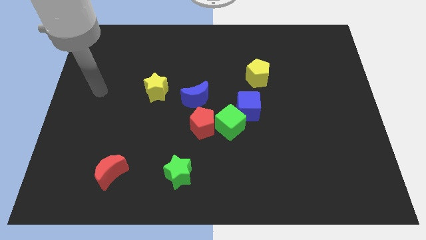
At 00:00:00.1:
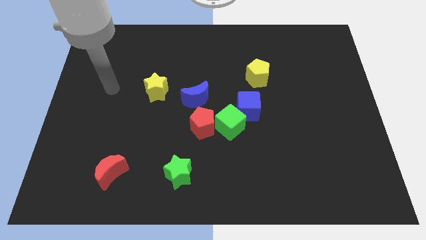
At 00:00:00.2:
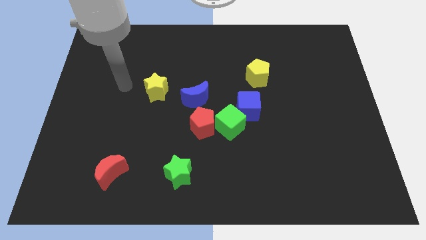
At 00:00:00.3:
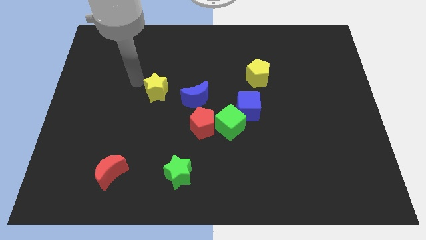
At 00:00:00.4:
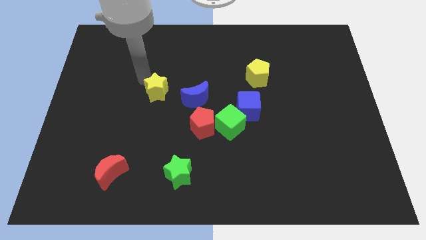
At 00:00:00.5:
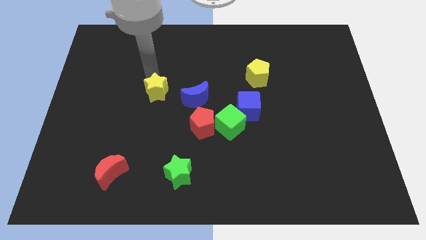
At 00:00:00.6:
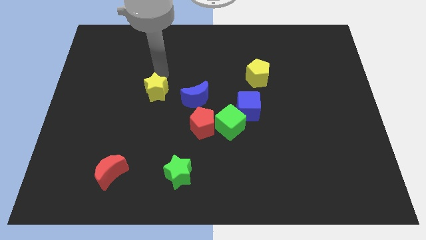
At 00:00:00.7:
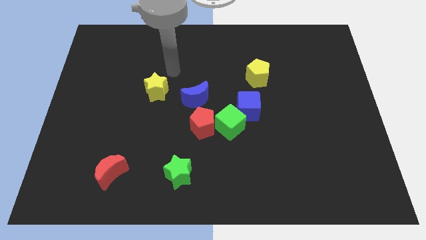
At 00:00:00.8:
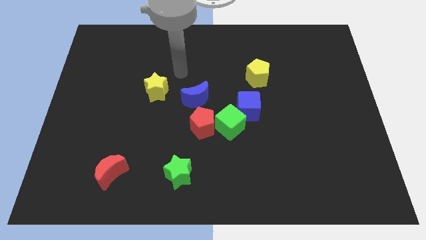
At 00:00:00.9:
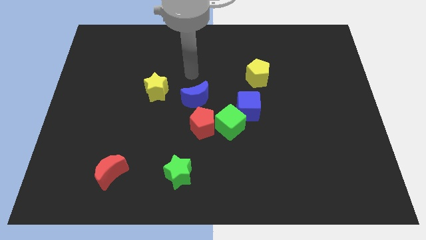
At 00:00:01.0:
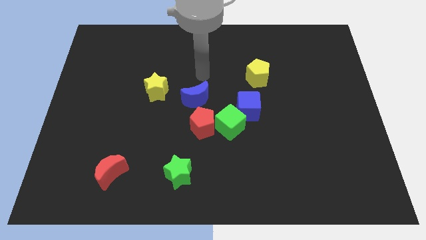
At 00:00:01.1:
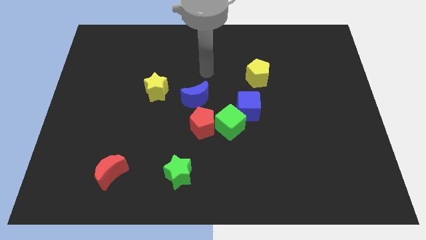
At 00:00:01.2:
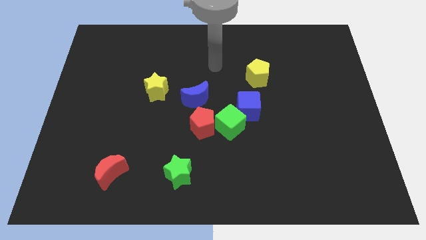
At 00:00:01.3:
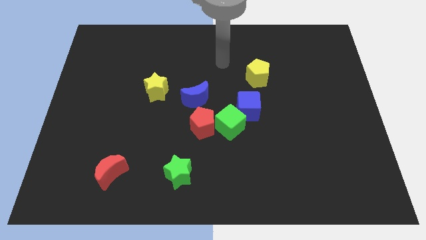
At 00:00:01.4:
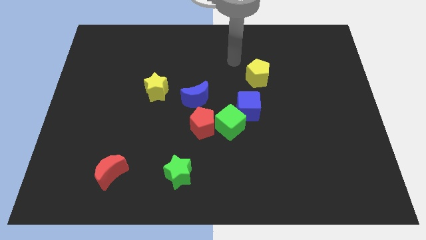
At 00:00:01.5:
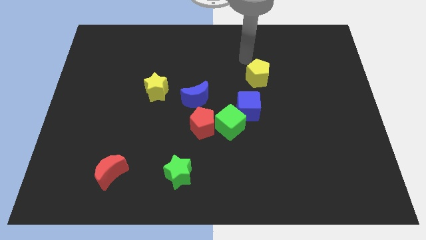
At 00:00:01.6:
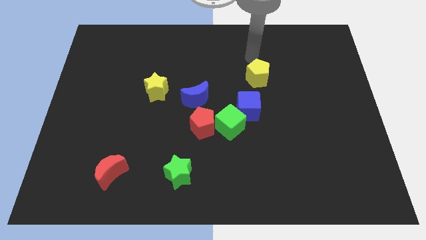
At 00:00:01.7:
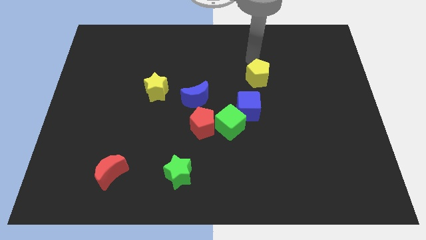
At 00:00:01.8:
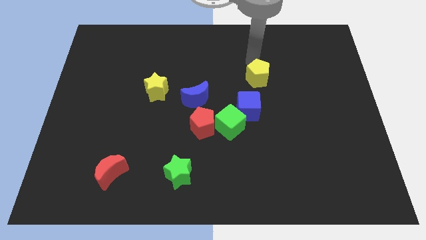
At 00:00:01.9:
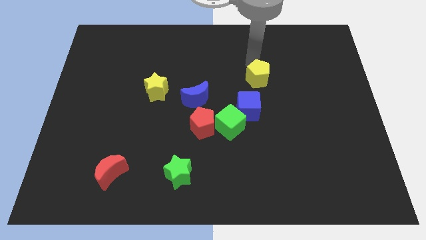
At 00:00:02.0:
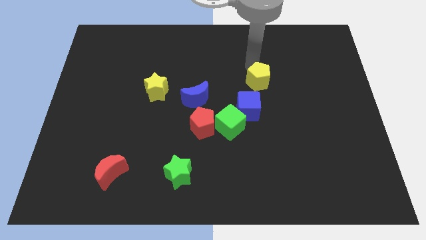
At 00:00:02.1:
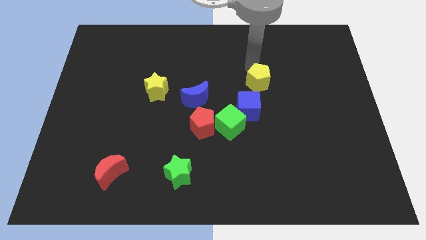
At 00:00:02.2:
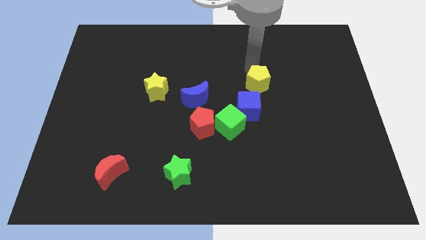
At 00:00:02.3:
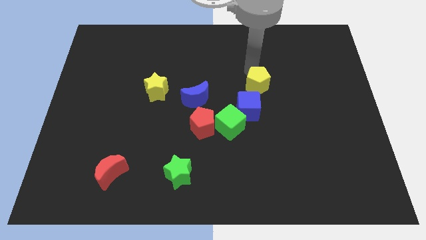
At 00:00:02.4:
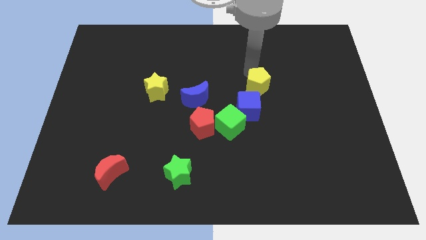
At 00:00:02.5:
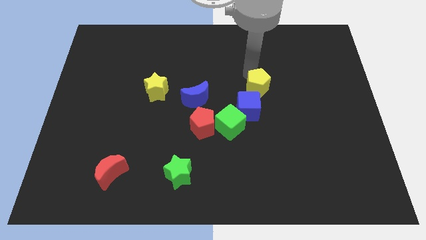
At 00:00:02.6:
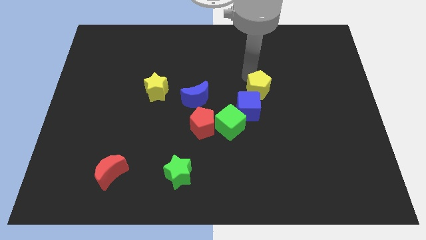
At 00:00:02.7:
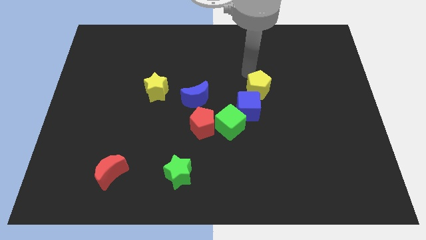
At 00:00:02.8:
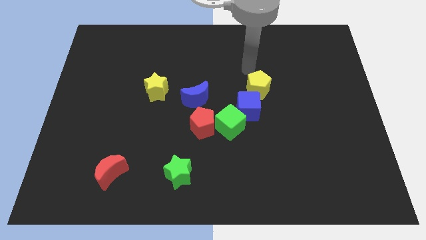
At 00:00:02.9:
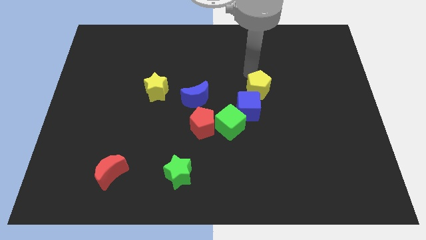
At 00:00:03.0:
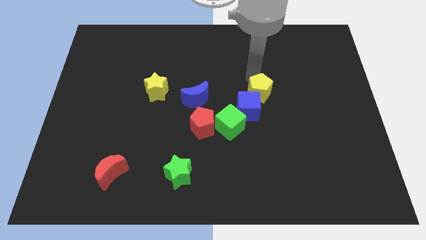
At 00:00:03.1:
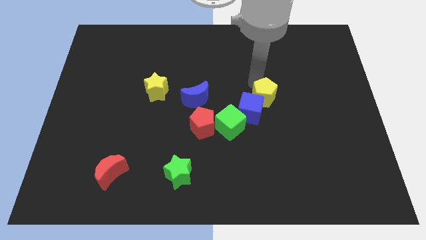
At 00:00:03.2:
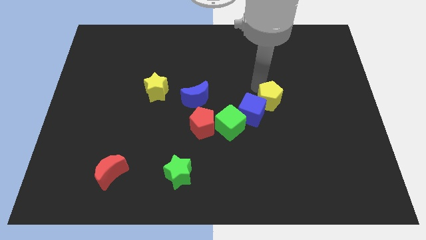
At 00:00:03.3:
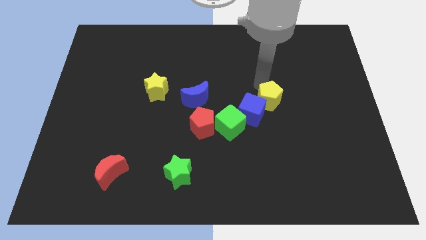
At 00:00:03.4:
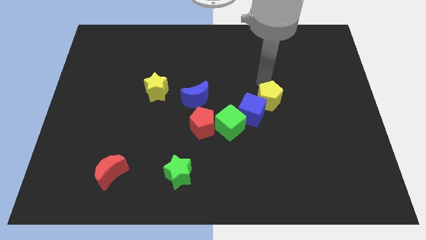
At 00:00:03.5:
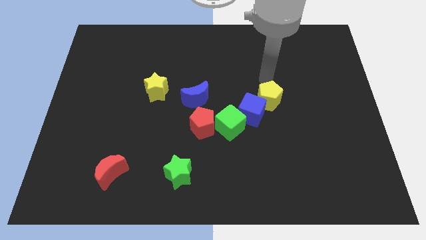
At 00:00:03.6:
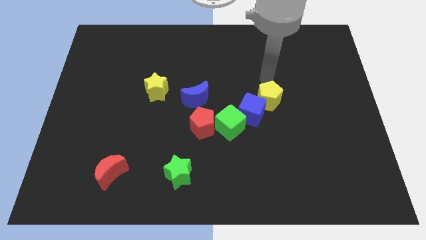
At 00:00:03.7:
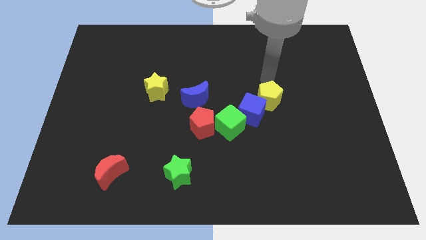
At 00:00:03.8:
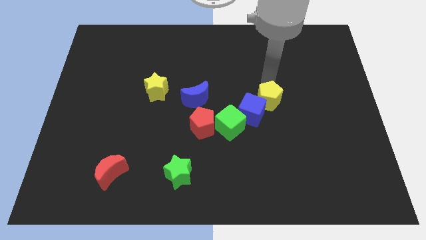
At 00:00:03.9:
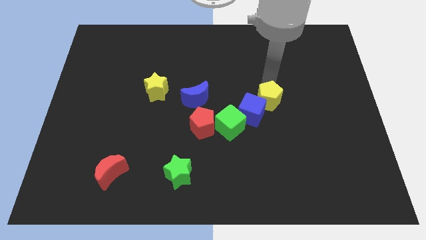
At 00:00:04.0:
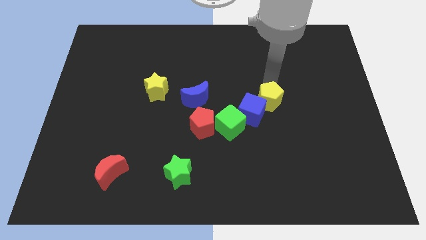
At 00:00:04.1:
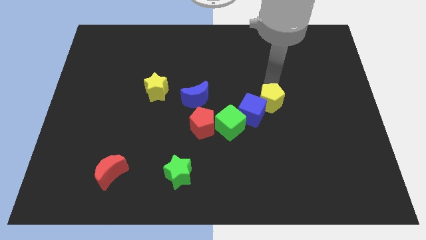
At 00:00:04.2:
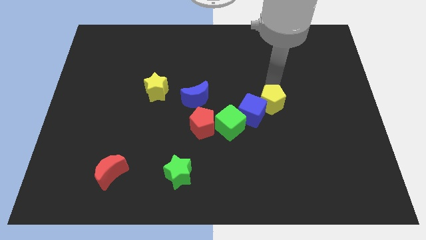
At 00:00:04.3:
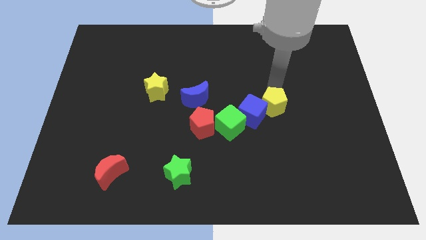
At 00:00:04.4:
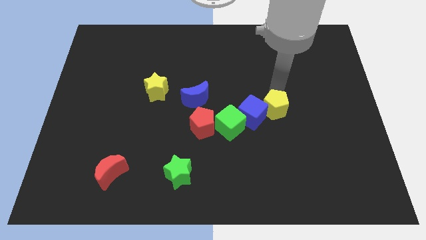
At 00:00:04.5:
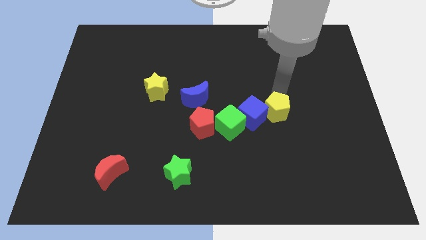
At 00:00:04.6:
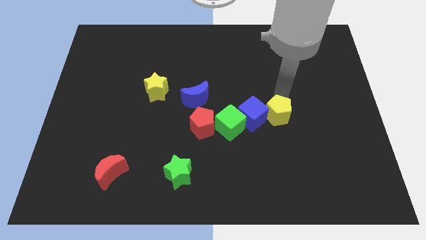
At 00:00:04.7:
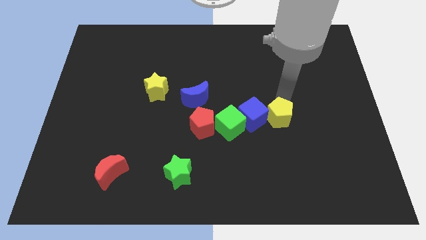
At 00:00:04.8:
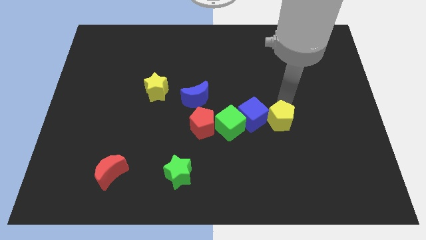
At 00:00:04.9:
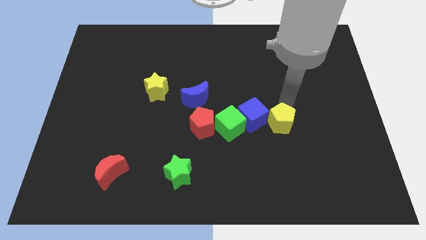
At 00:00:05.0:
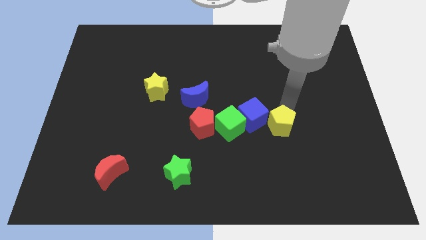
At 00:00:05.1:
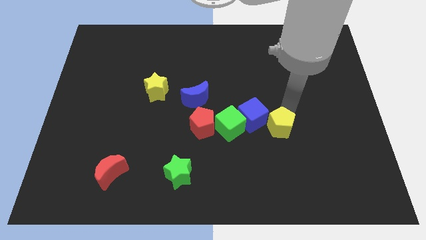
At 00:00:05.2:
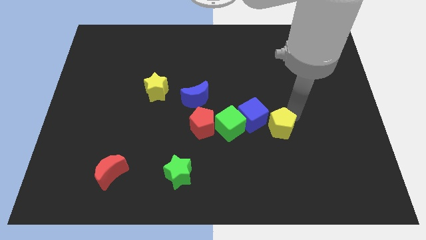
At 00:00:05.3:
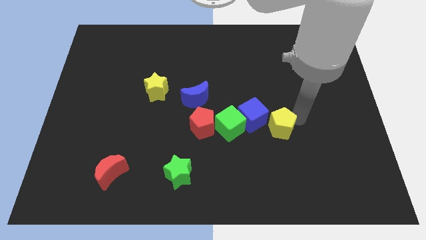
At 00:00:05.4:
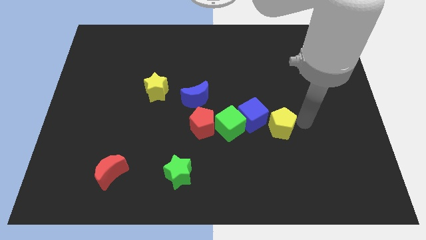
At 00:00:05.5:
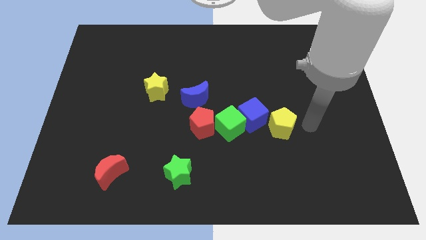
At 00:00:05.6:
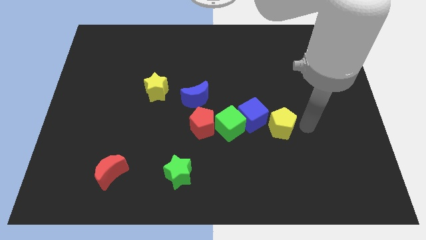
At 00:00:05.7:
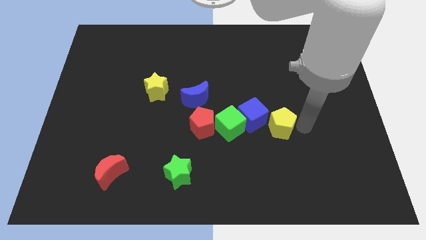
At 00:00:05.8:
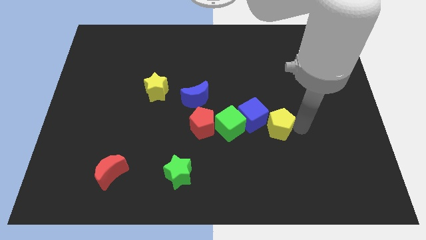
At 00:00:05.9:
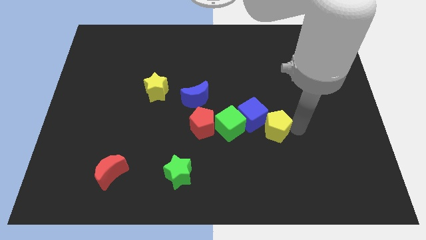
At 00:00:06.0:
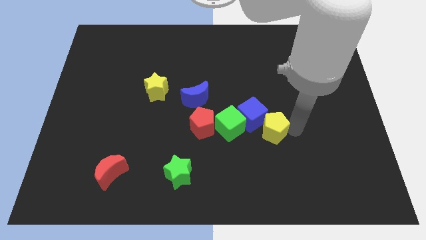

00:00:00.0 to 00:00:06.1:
slide the yellow pentagon to the right side of the red pentagon

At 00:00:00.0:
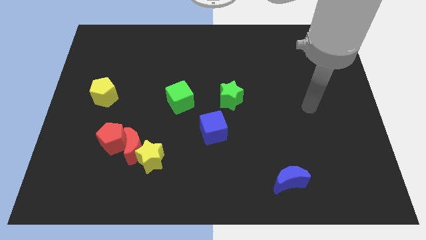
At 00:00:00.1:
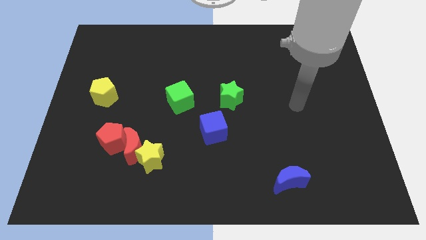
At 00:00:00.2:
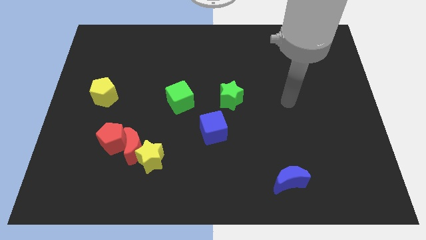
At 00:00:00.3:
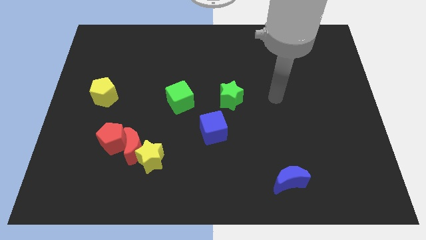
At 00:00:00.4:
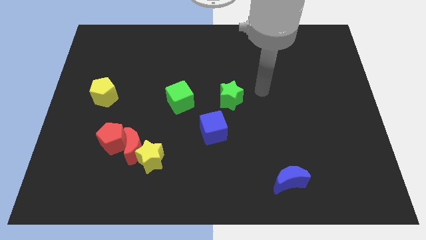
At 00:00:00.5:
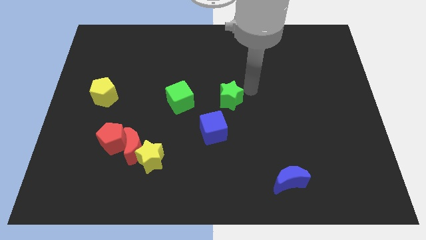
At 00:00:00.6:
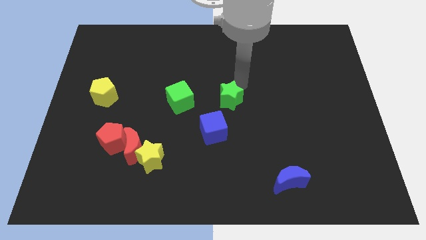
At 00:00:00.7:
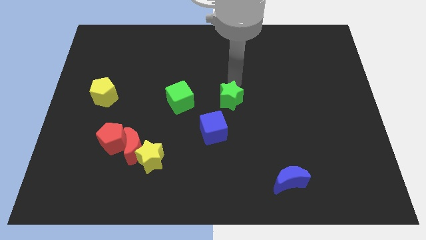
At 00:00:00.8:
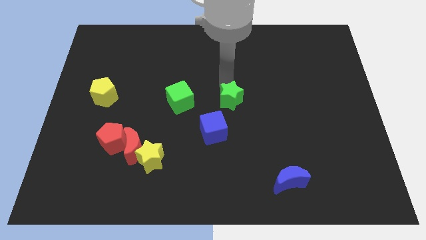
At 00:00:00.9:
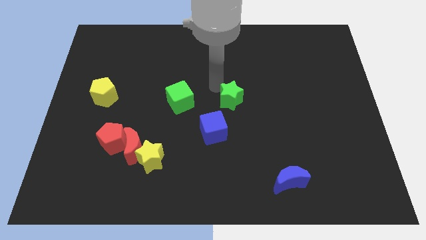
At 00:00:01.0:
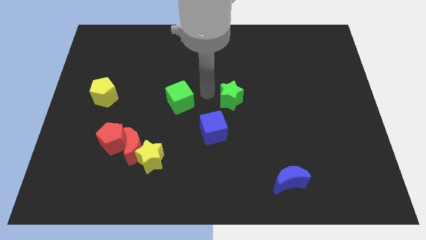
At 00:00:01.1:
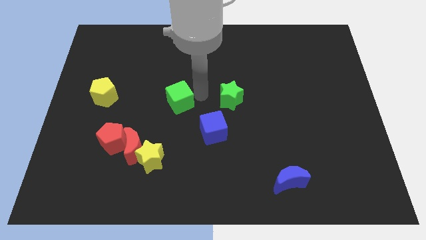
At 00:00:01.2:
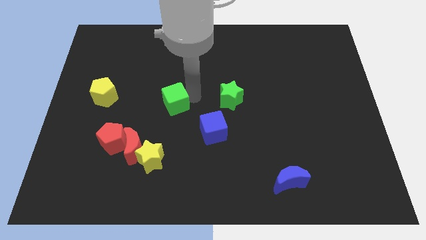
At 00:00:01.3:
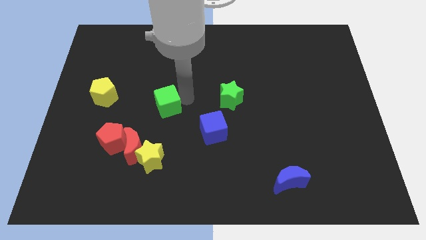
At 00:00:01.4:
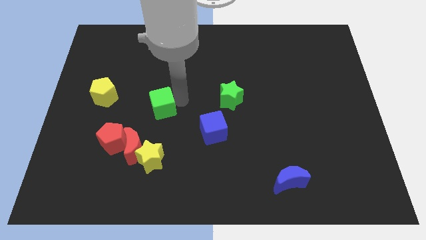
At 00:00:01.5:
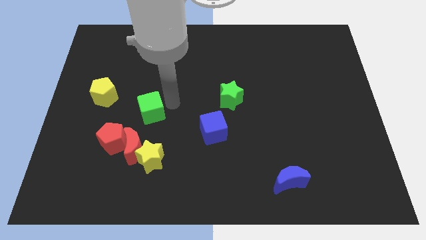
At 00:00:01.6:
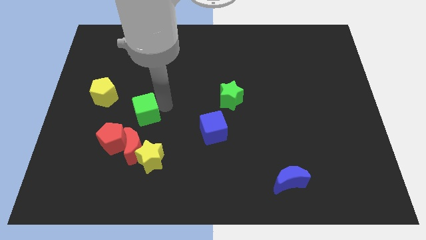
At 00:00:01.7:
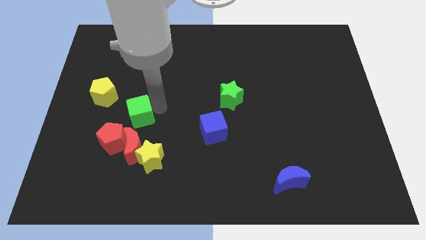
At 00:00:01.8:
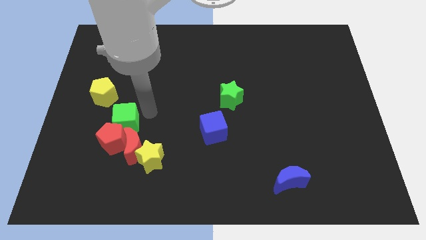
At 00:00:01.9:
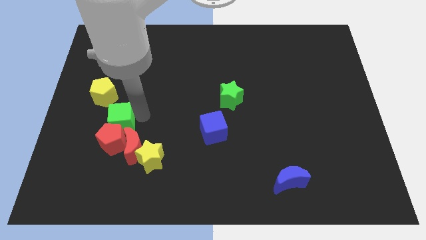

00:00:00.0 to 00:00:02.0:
move the green cube to the top left side of the red pentagon
